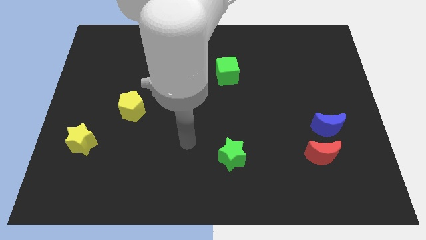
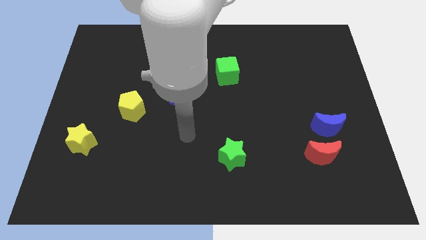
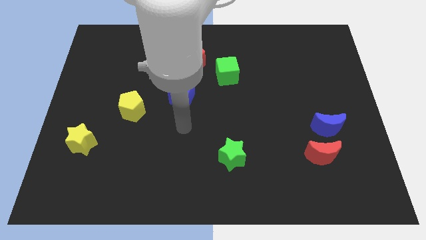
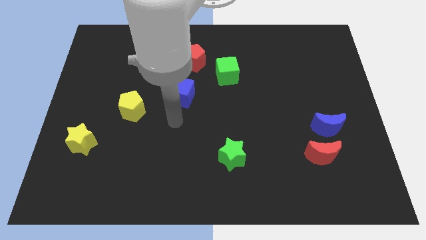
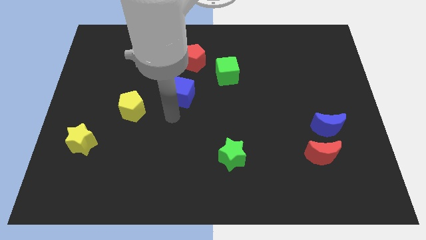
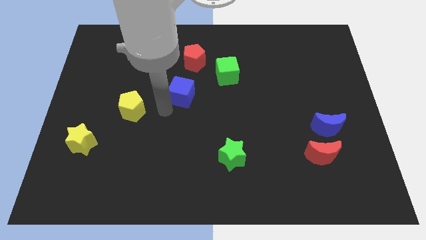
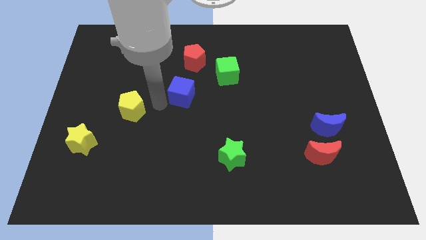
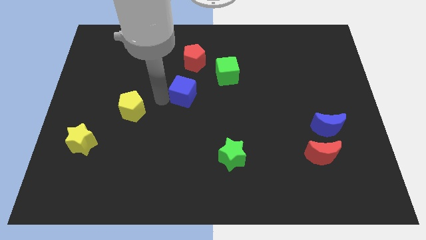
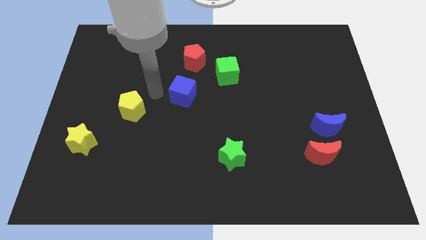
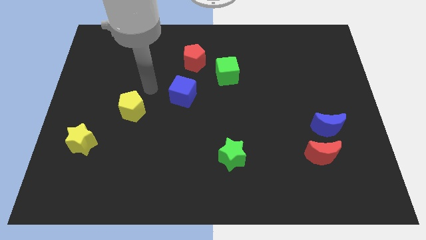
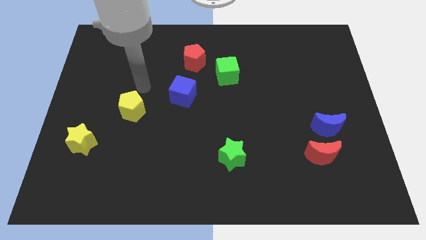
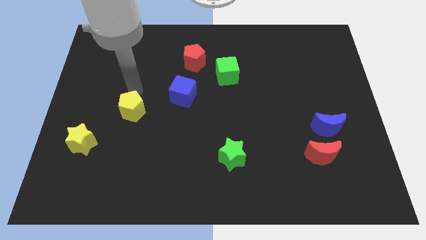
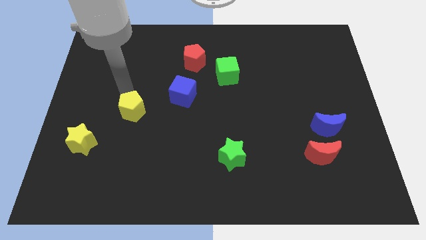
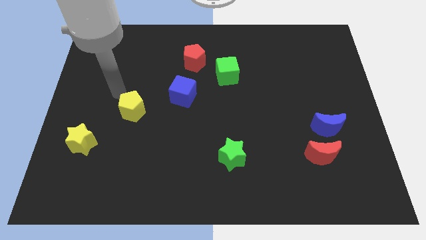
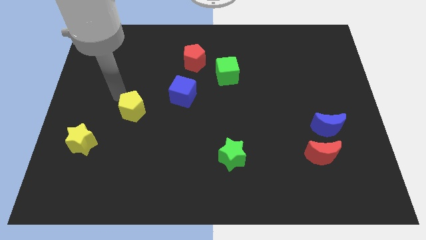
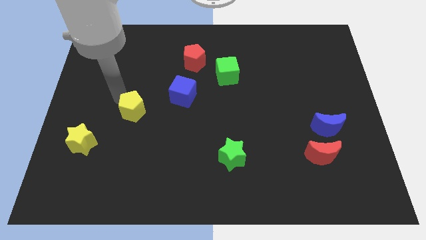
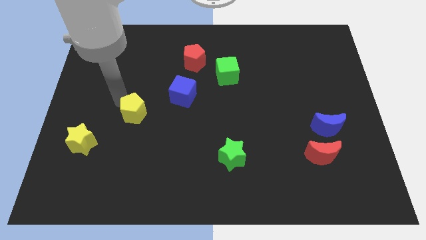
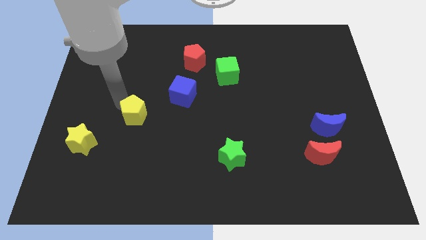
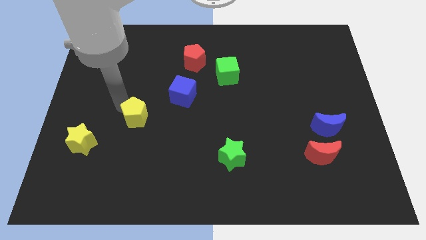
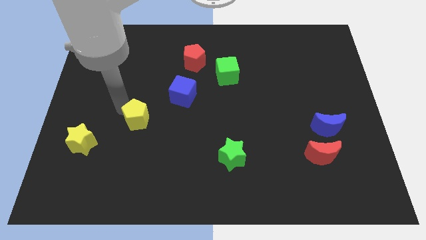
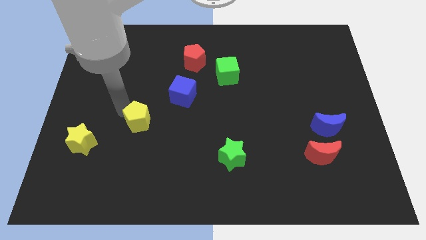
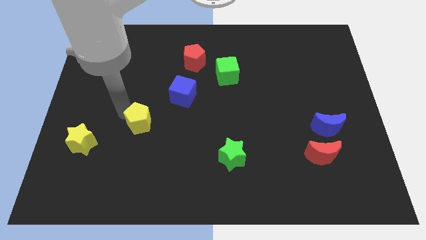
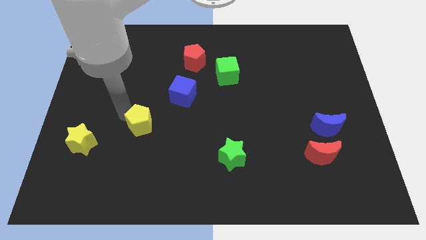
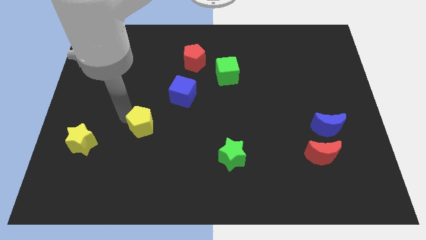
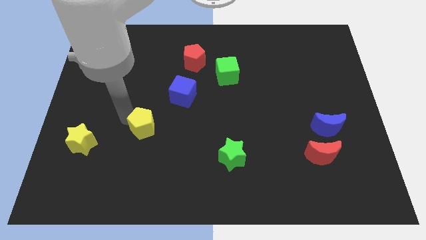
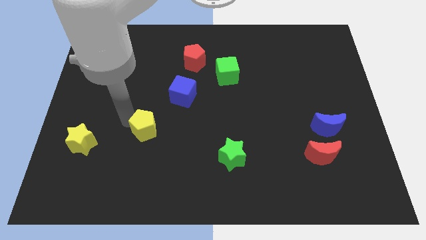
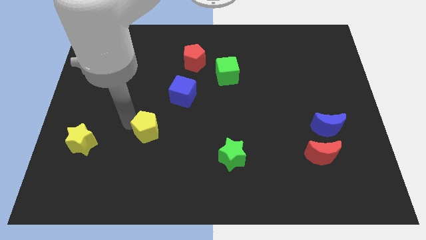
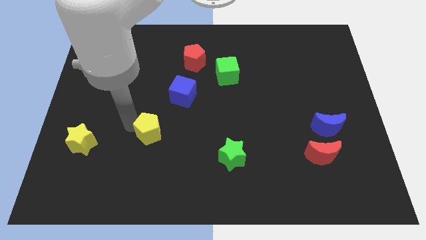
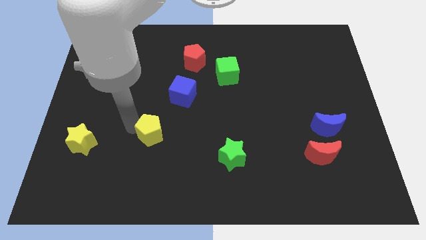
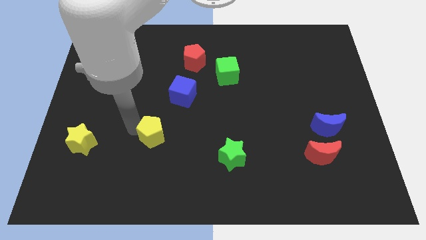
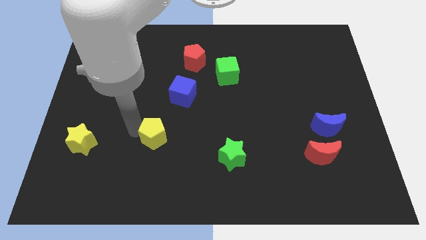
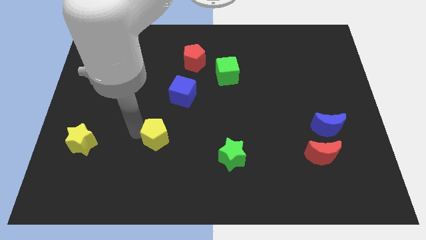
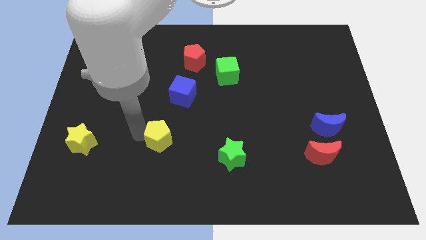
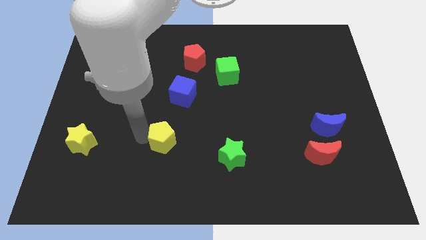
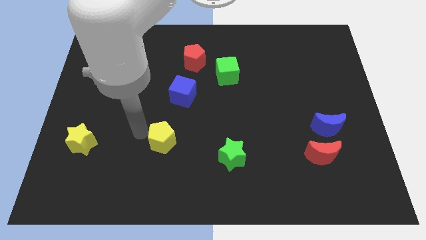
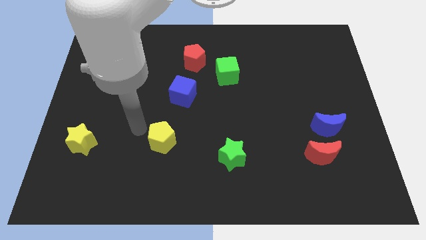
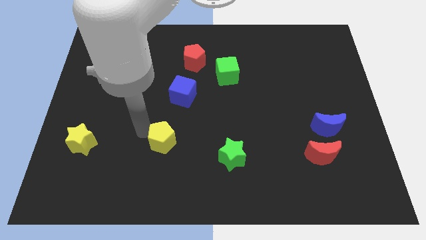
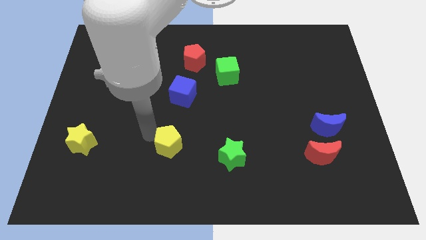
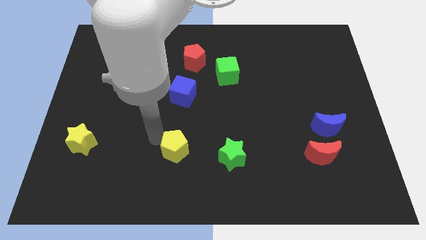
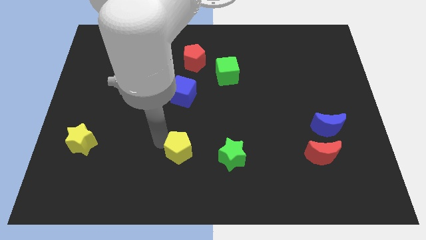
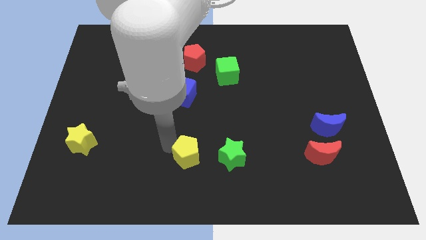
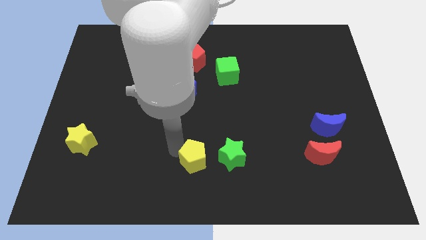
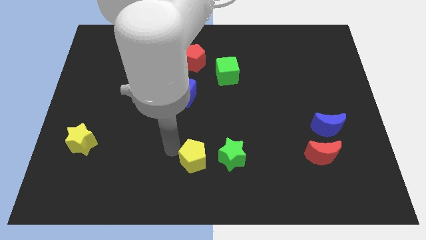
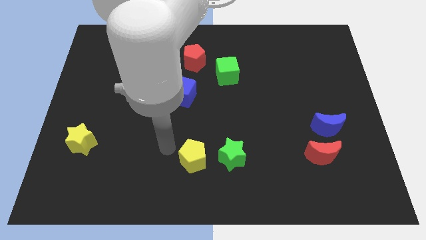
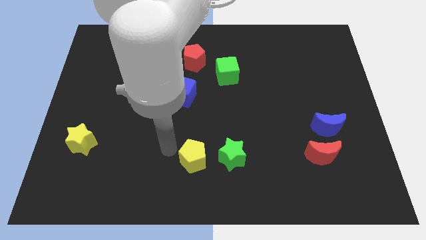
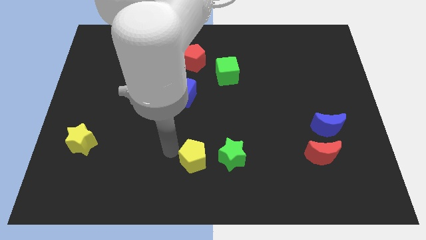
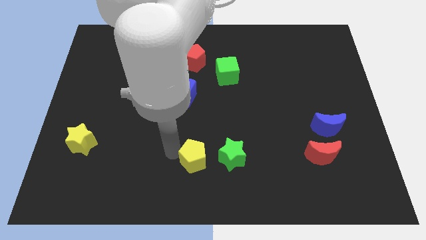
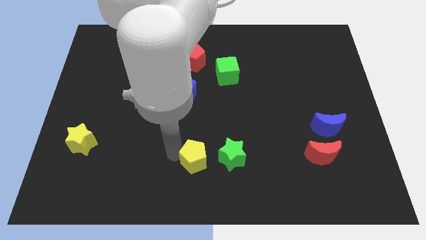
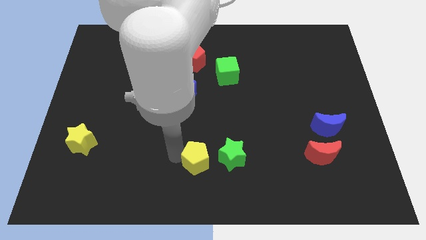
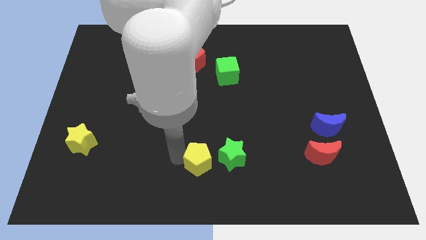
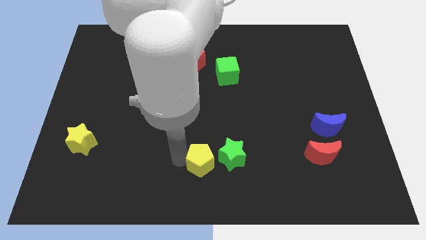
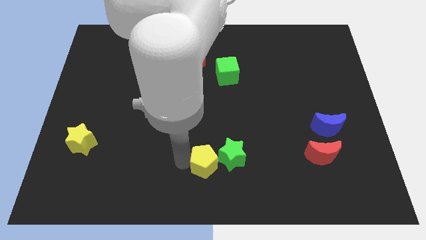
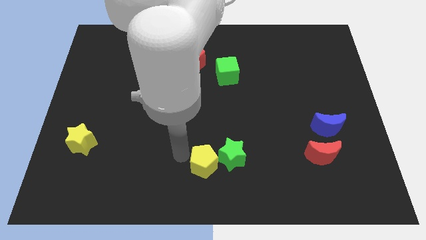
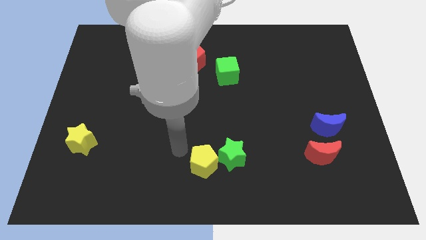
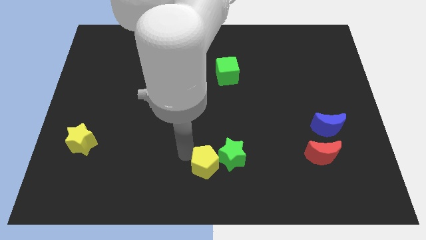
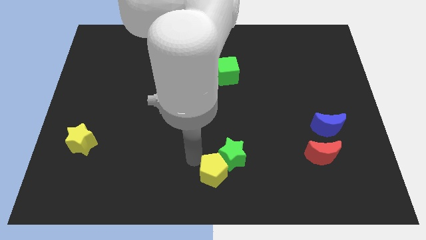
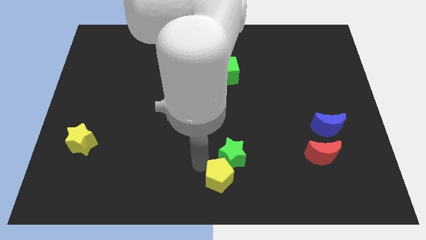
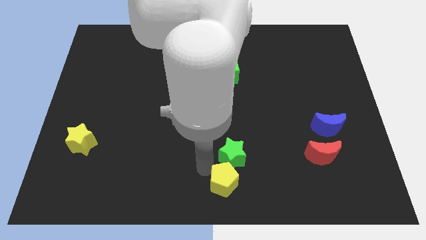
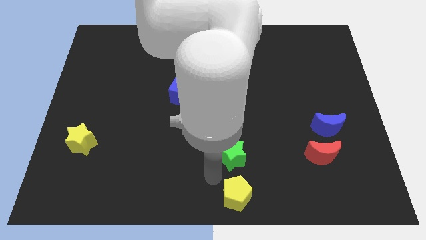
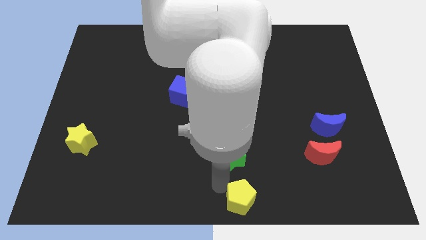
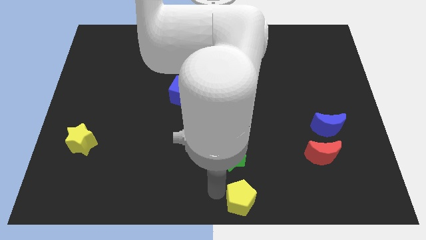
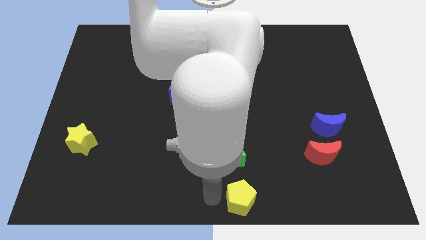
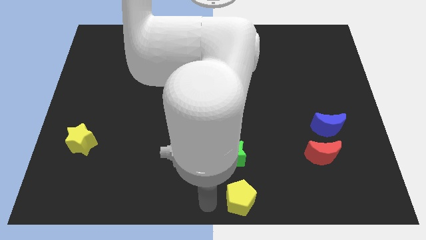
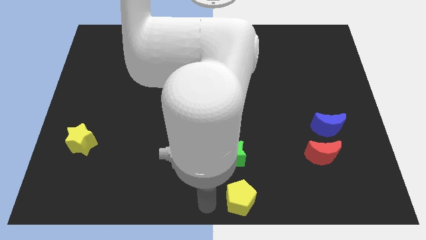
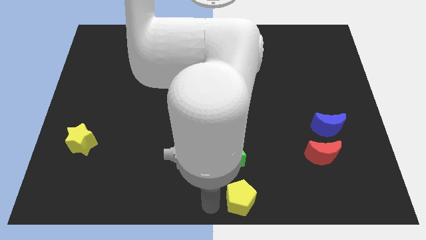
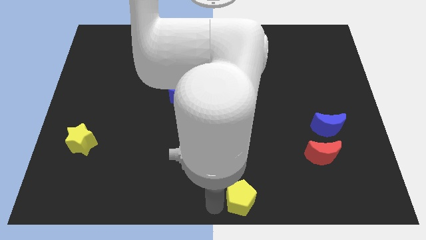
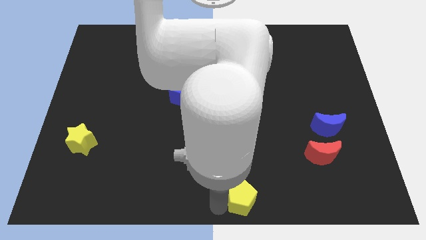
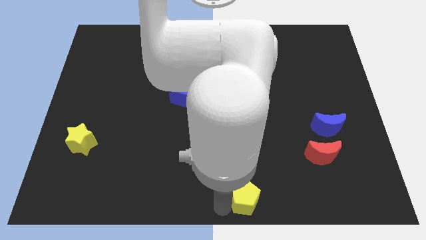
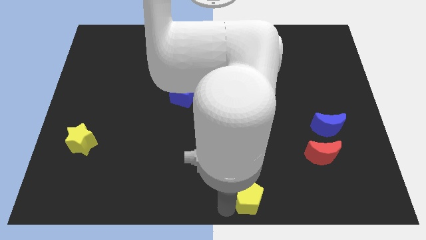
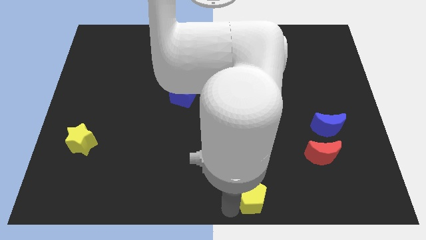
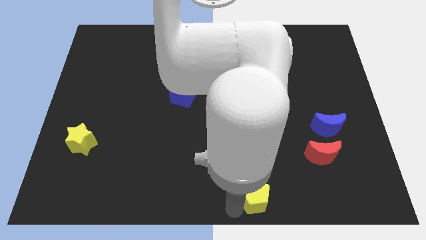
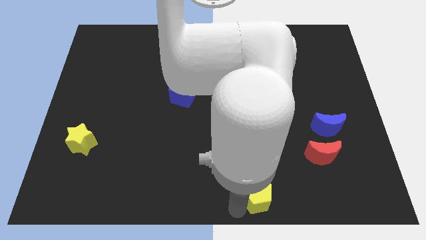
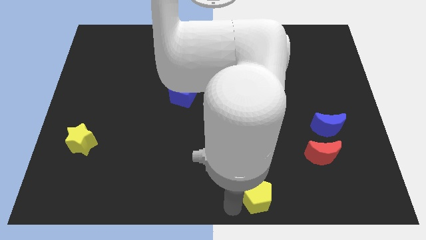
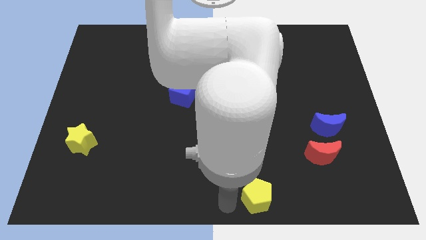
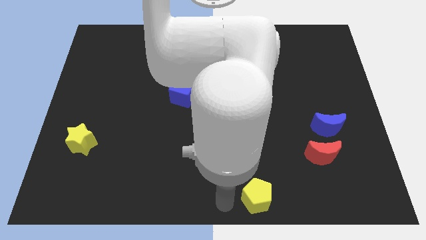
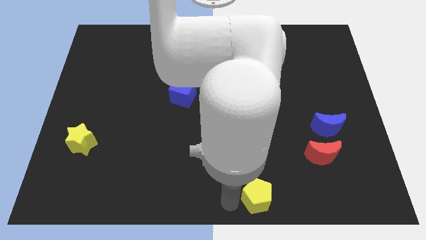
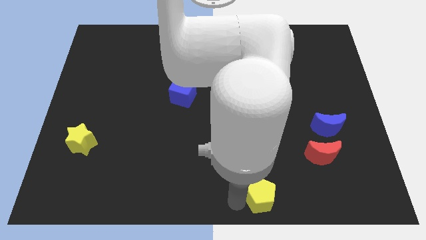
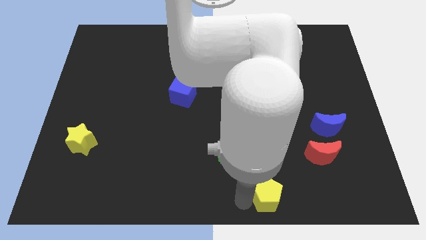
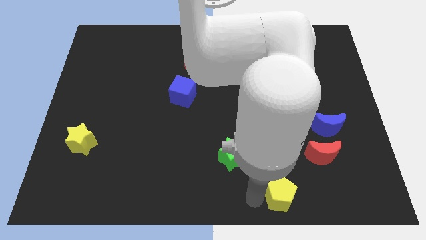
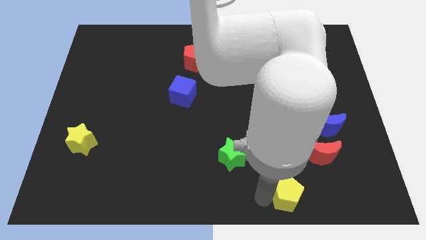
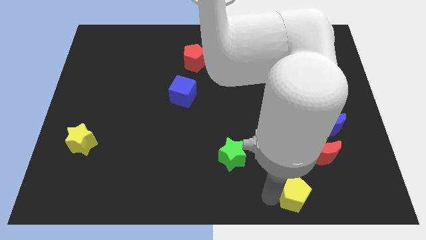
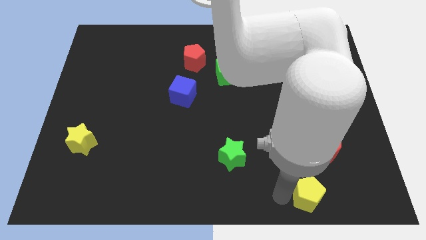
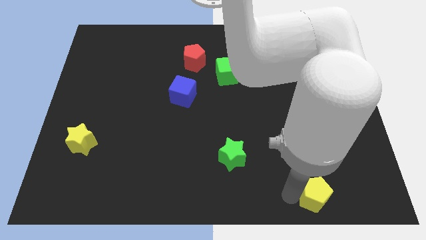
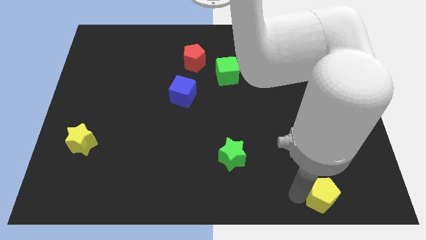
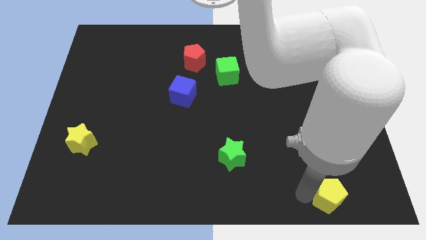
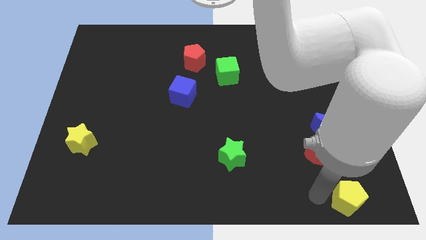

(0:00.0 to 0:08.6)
push the yellow pentagon to the bottom right corner
